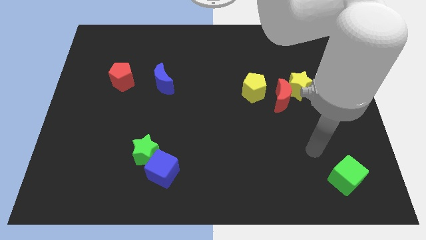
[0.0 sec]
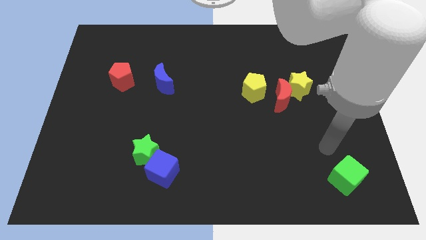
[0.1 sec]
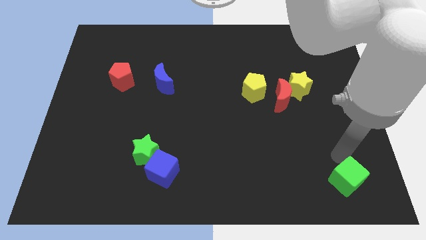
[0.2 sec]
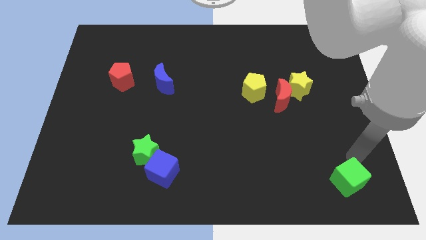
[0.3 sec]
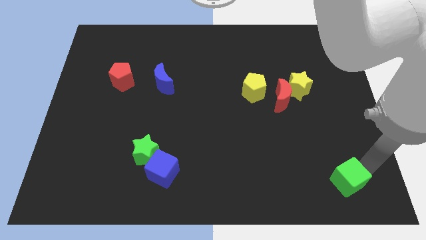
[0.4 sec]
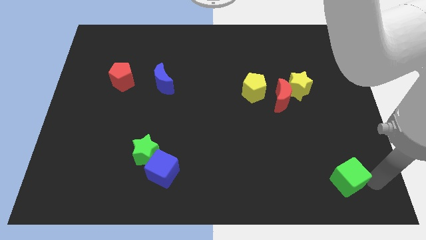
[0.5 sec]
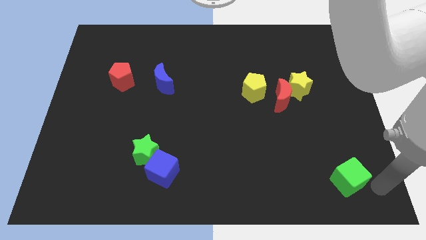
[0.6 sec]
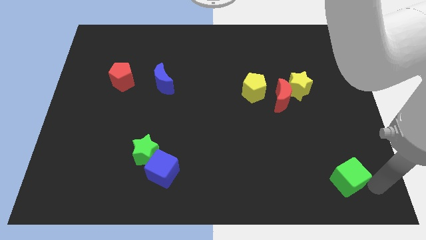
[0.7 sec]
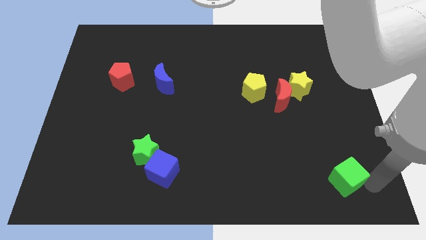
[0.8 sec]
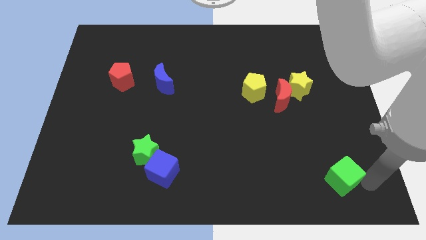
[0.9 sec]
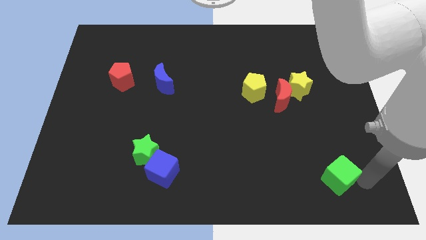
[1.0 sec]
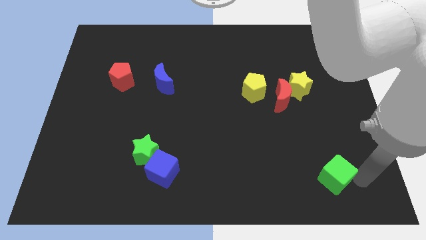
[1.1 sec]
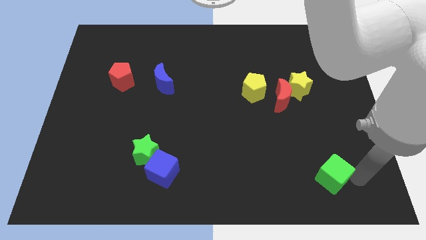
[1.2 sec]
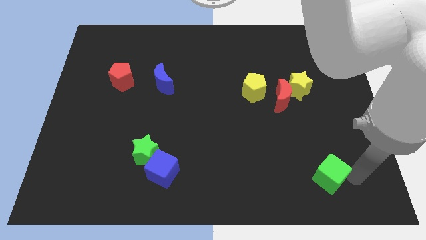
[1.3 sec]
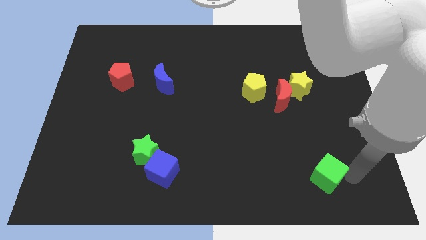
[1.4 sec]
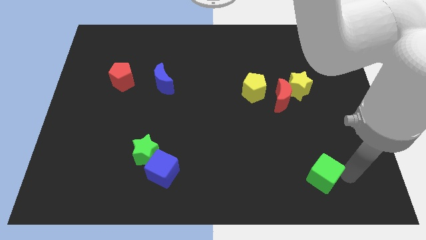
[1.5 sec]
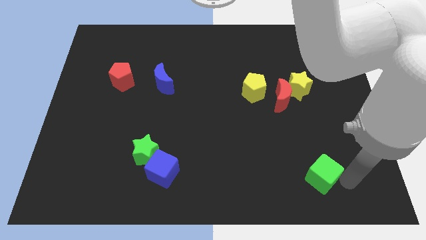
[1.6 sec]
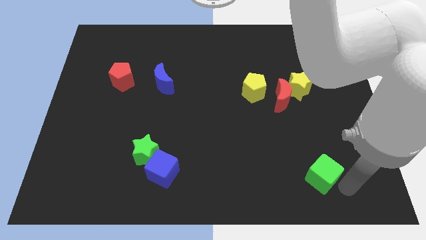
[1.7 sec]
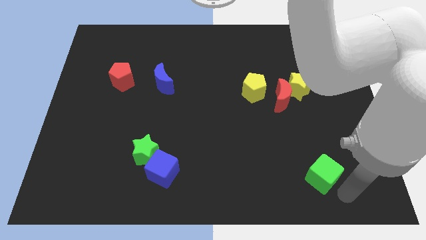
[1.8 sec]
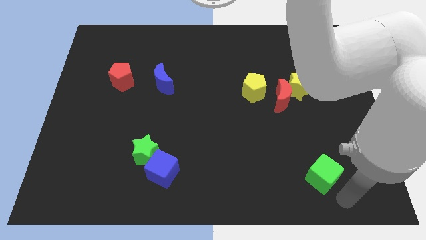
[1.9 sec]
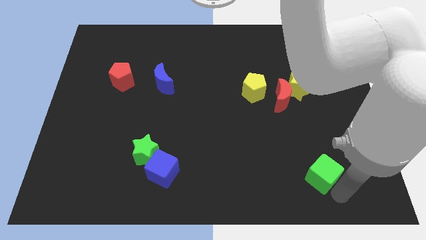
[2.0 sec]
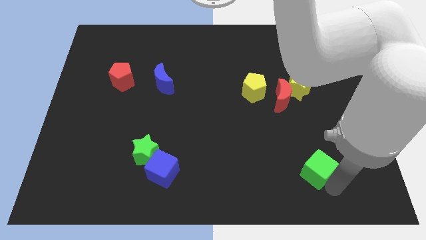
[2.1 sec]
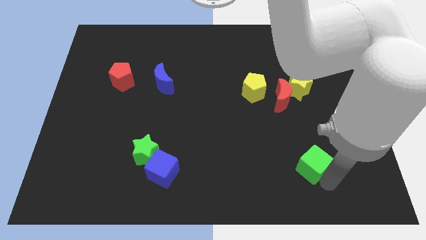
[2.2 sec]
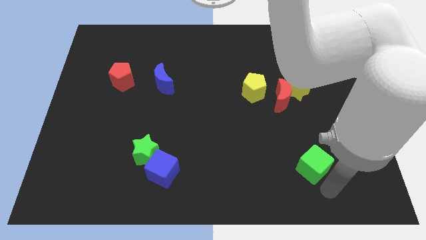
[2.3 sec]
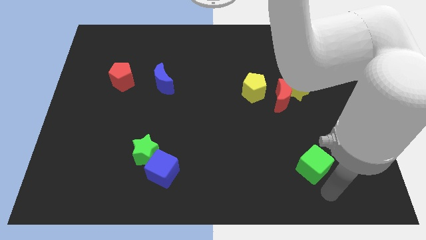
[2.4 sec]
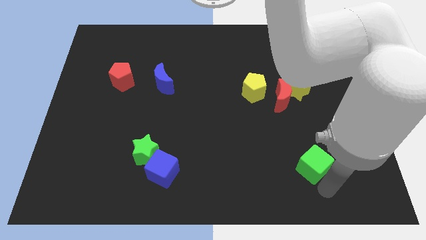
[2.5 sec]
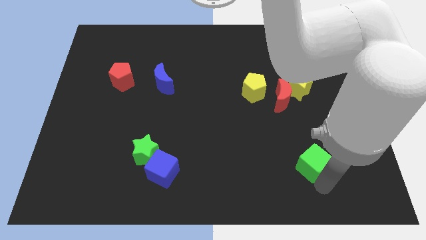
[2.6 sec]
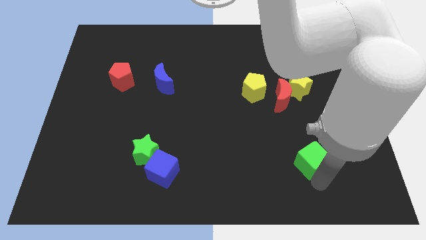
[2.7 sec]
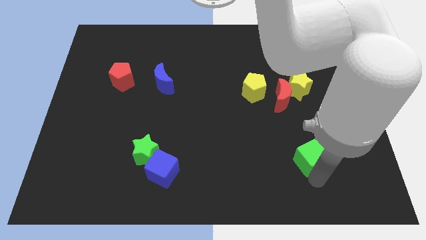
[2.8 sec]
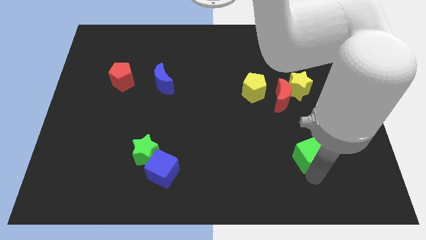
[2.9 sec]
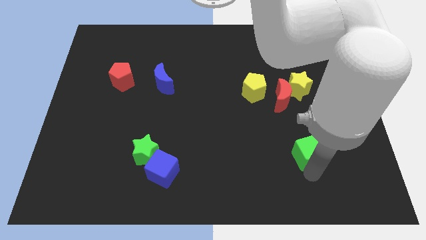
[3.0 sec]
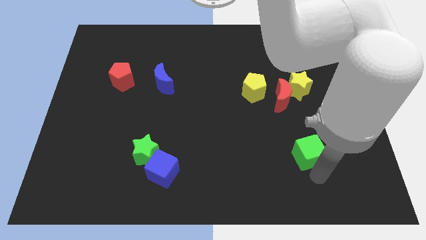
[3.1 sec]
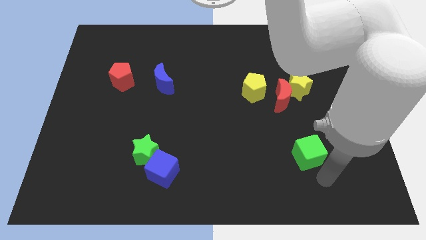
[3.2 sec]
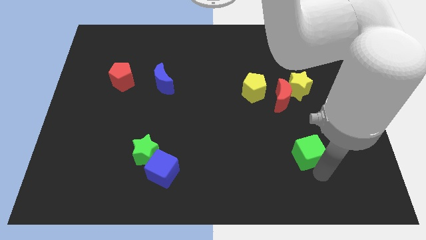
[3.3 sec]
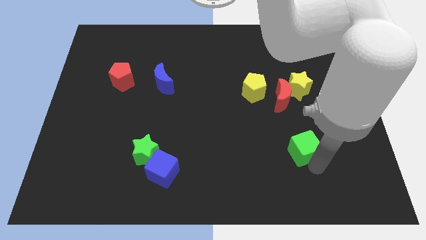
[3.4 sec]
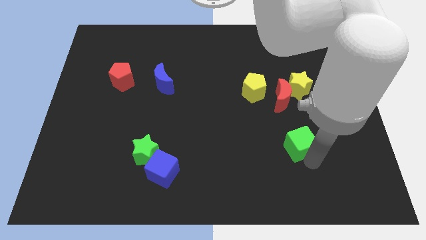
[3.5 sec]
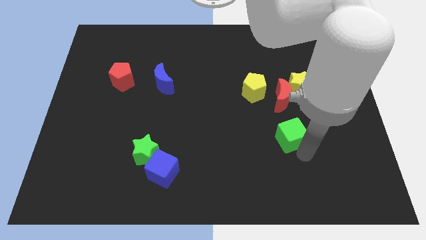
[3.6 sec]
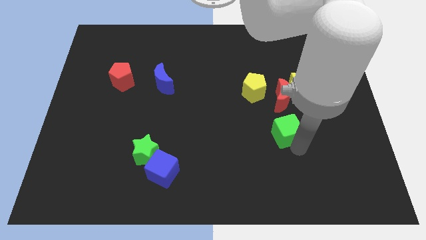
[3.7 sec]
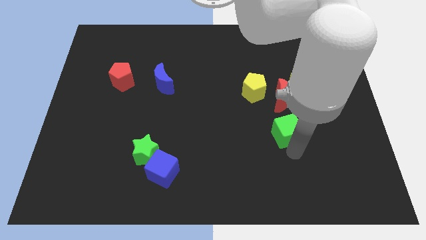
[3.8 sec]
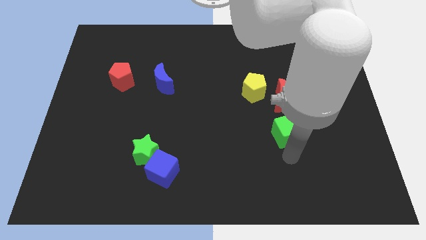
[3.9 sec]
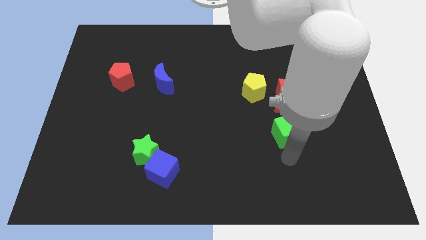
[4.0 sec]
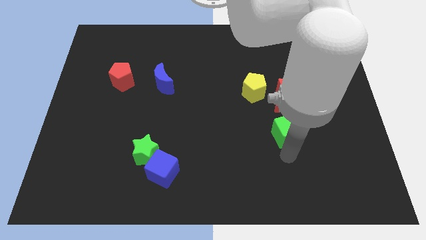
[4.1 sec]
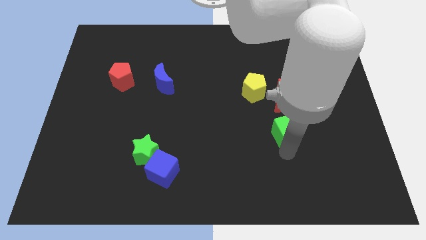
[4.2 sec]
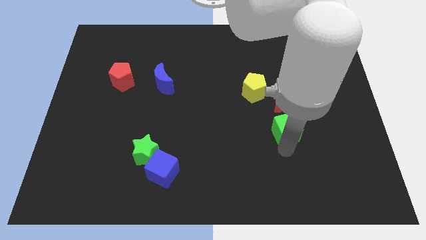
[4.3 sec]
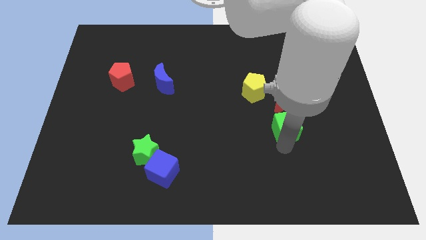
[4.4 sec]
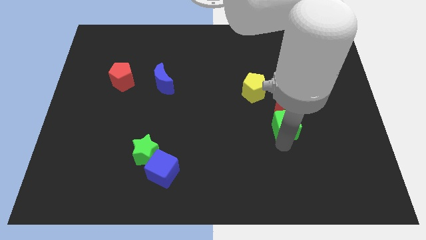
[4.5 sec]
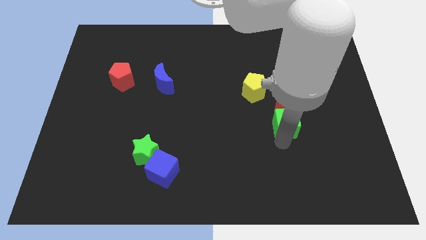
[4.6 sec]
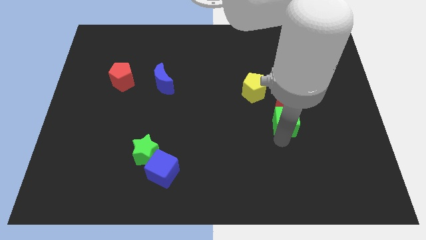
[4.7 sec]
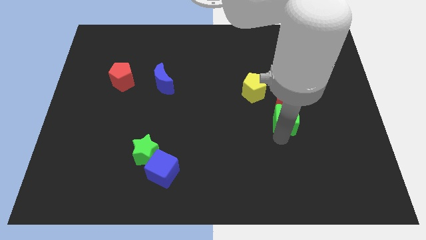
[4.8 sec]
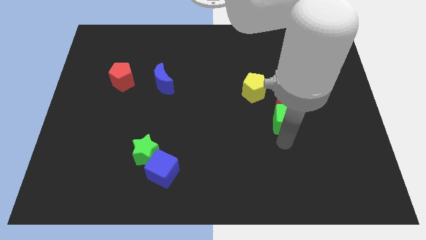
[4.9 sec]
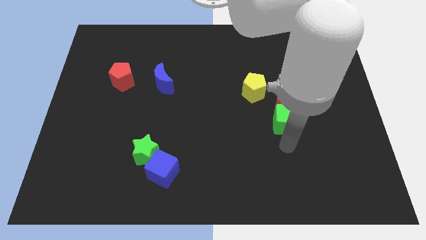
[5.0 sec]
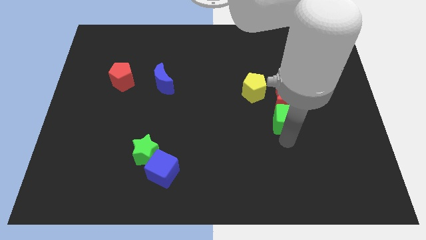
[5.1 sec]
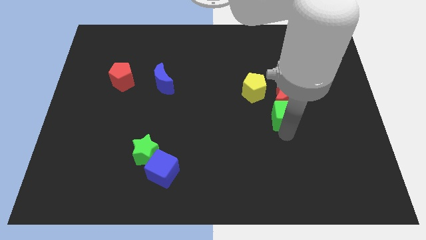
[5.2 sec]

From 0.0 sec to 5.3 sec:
move the green cube towards the red moon

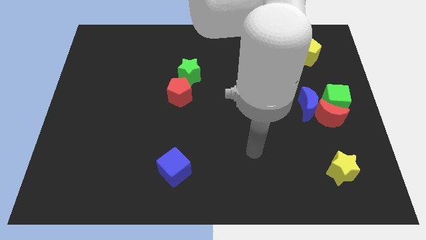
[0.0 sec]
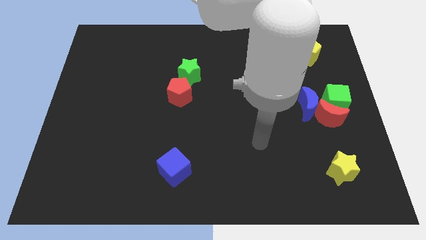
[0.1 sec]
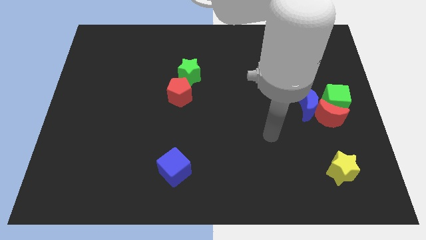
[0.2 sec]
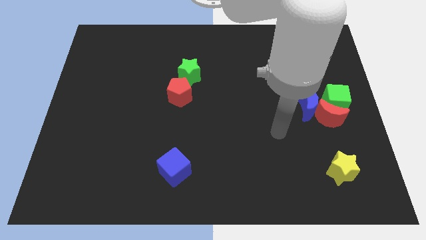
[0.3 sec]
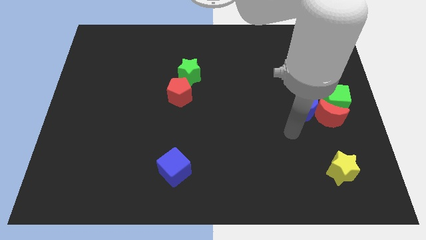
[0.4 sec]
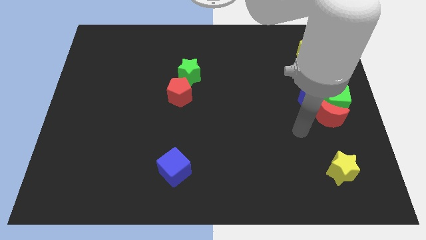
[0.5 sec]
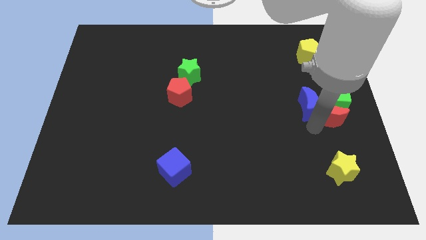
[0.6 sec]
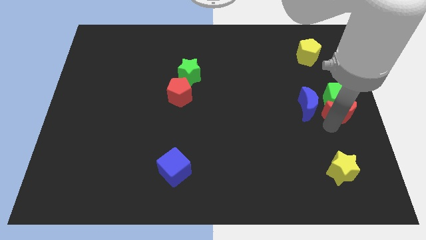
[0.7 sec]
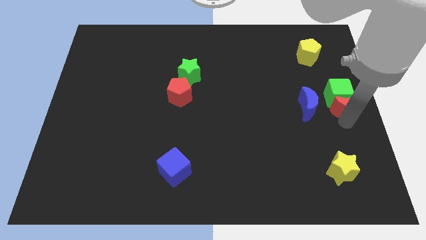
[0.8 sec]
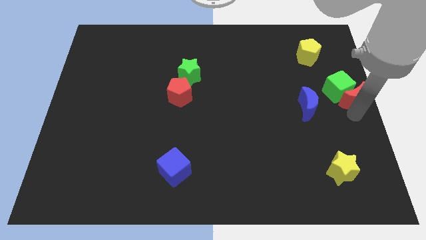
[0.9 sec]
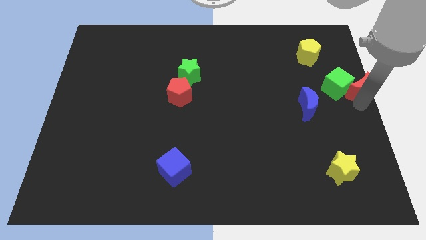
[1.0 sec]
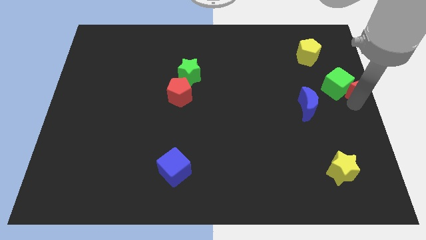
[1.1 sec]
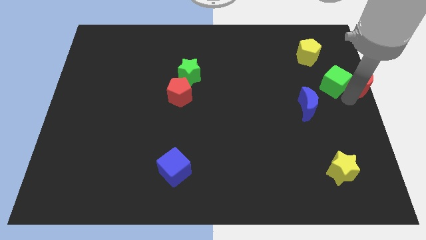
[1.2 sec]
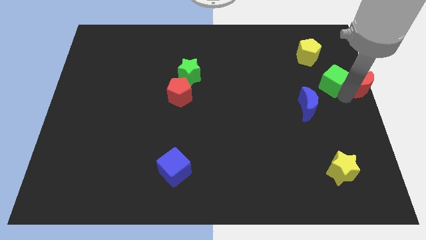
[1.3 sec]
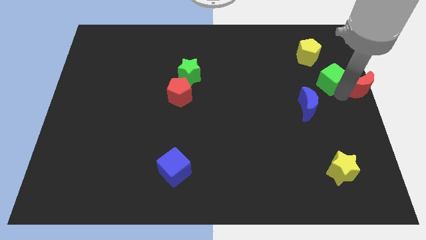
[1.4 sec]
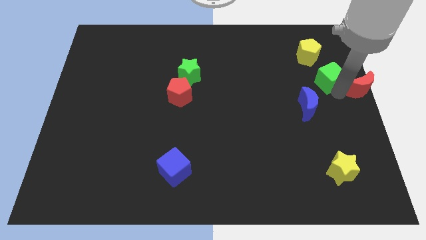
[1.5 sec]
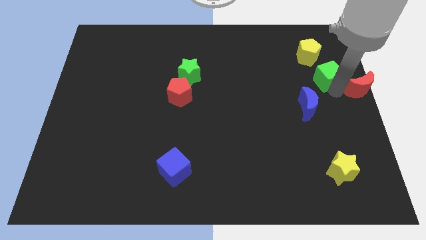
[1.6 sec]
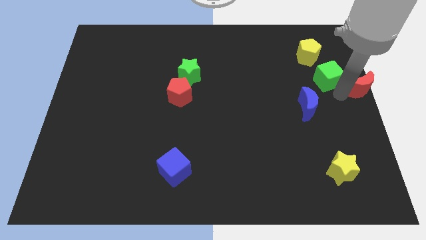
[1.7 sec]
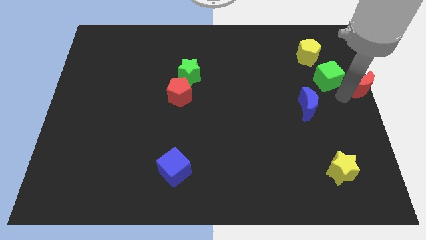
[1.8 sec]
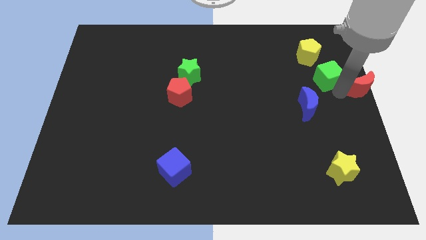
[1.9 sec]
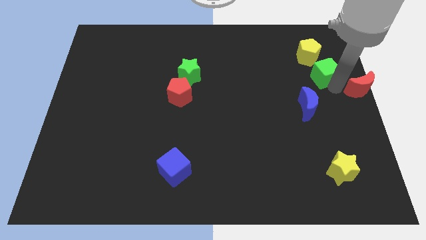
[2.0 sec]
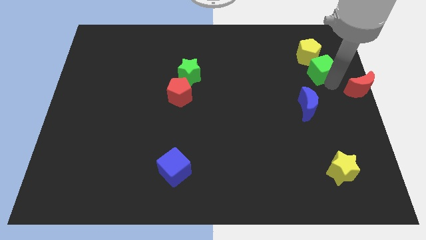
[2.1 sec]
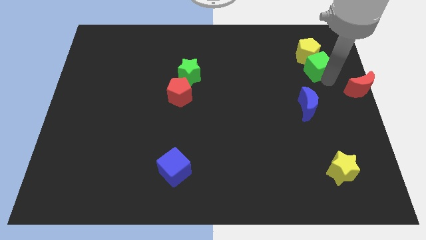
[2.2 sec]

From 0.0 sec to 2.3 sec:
move the green cube close to the yellow pentagon
